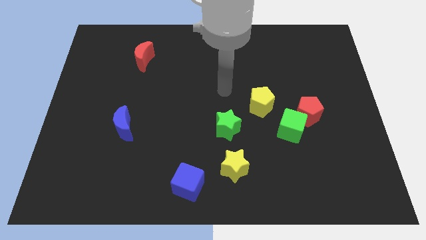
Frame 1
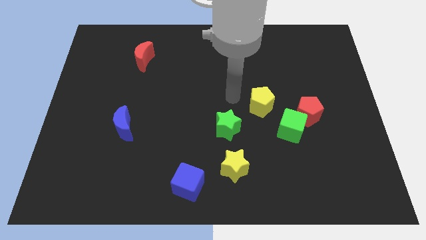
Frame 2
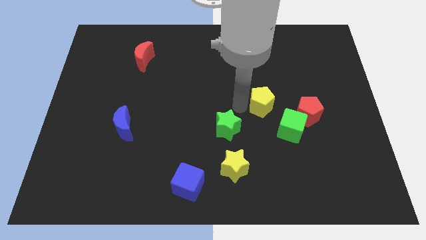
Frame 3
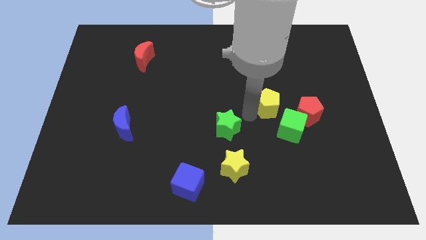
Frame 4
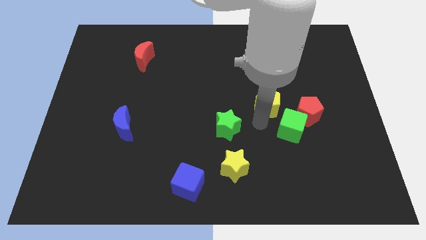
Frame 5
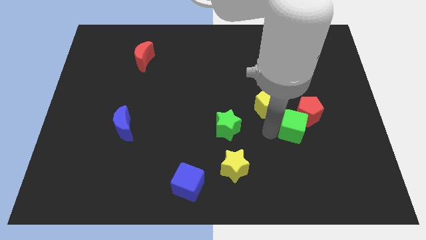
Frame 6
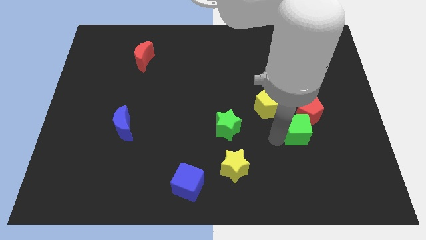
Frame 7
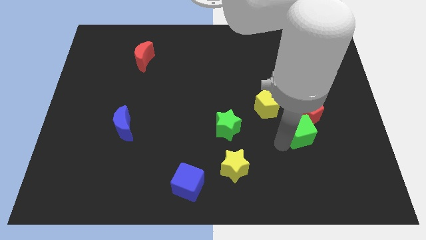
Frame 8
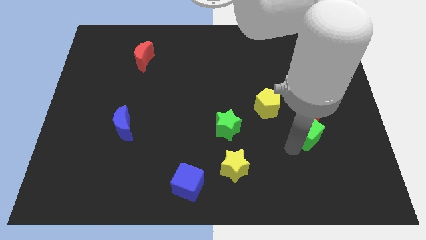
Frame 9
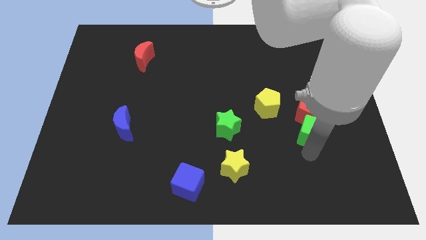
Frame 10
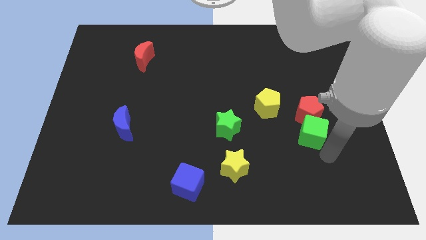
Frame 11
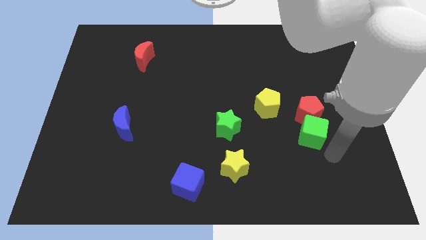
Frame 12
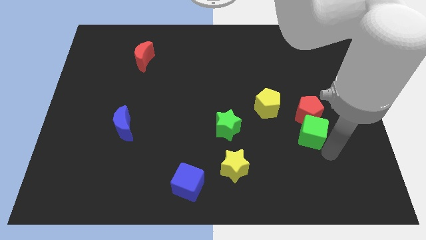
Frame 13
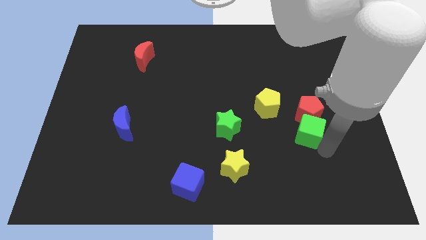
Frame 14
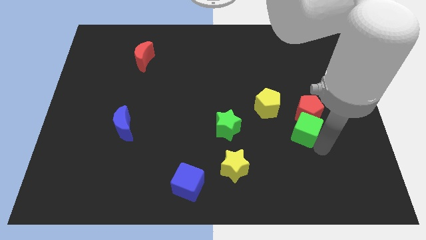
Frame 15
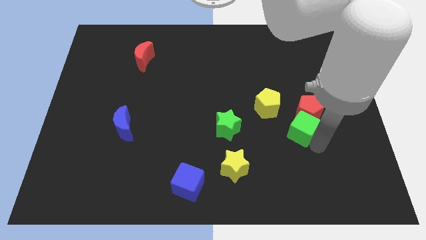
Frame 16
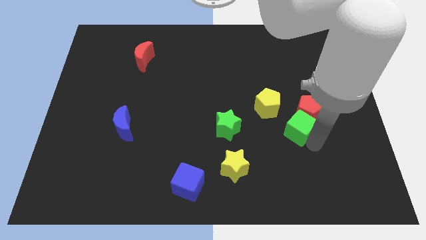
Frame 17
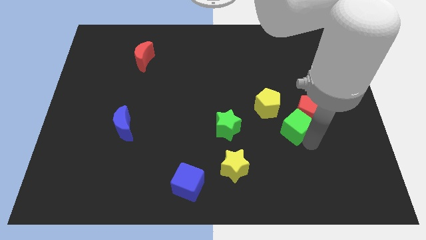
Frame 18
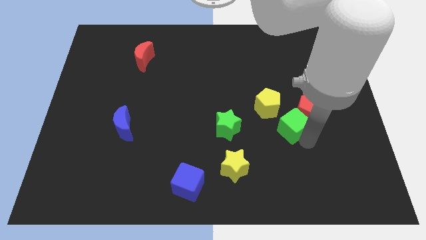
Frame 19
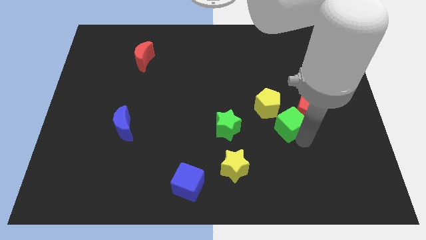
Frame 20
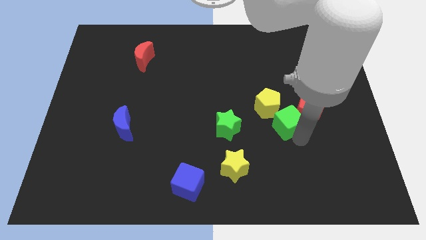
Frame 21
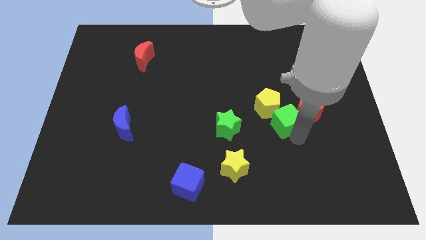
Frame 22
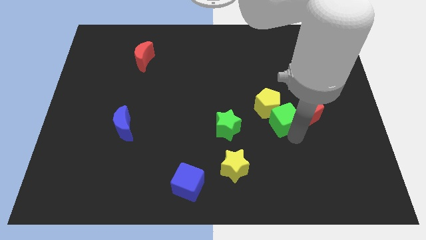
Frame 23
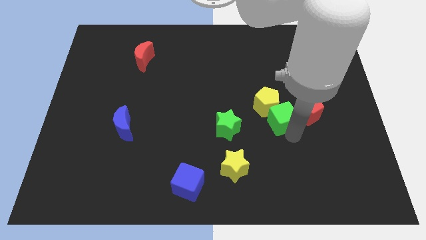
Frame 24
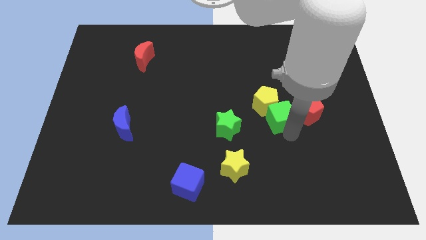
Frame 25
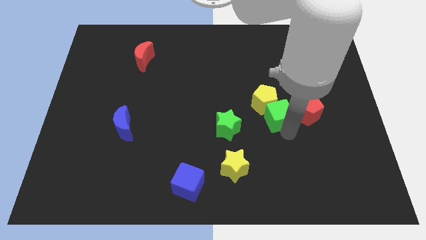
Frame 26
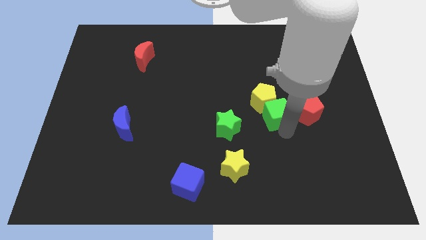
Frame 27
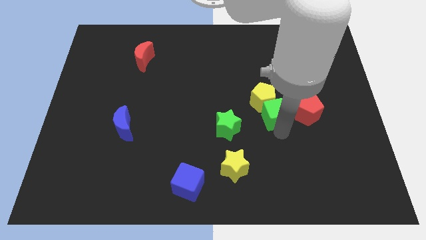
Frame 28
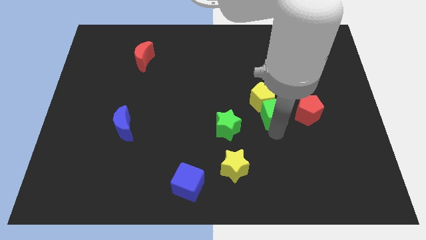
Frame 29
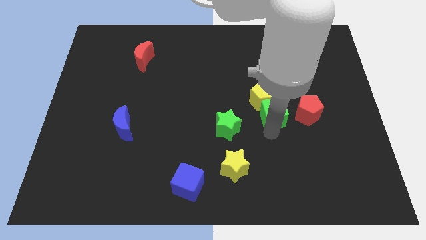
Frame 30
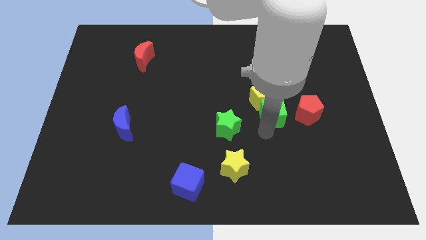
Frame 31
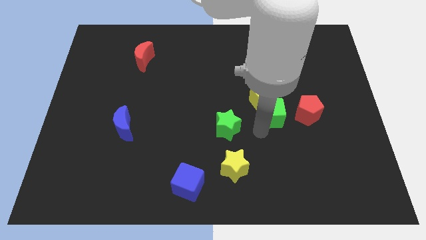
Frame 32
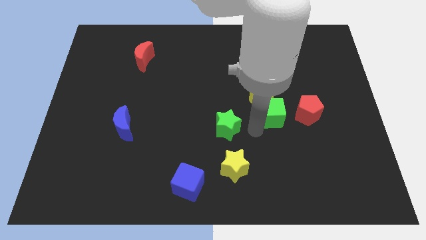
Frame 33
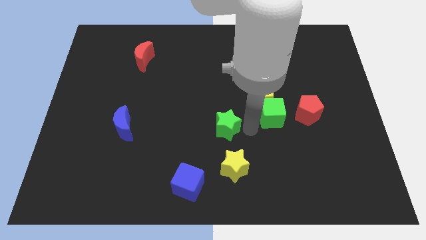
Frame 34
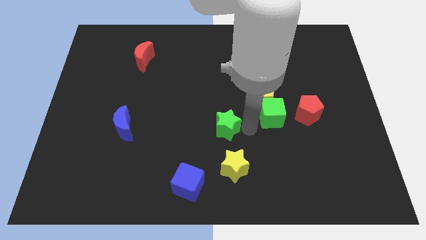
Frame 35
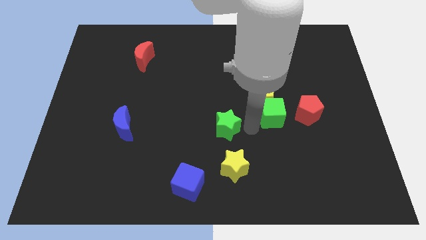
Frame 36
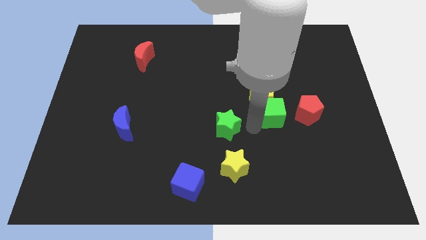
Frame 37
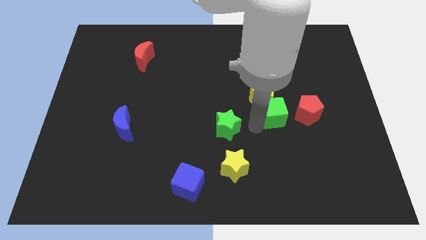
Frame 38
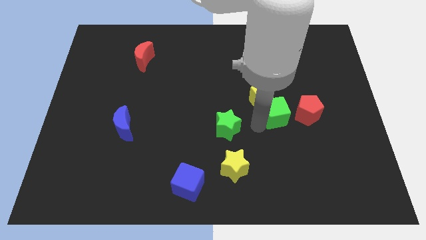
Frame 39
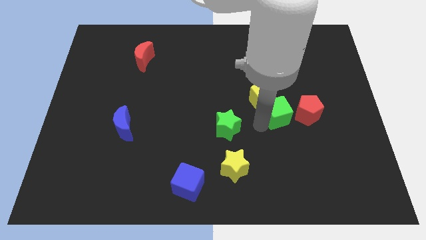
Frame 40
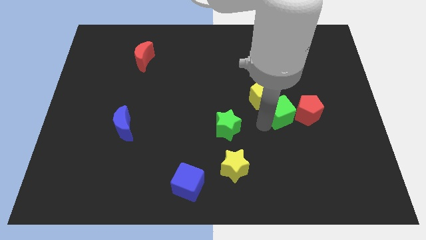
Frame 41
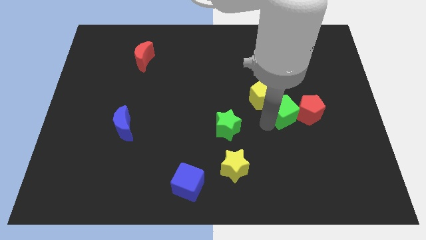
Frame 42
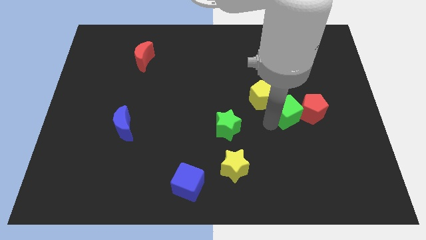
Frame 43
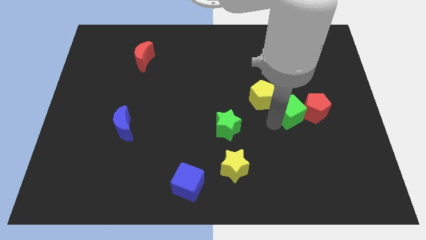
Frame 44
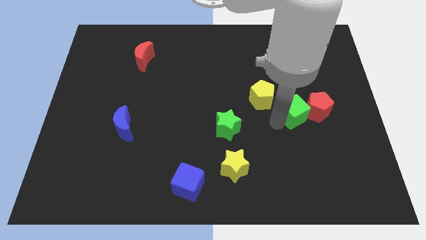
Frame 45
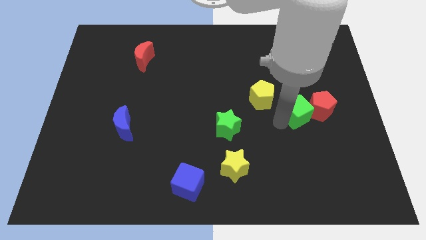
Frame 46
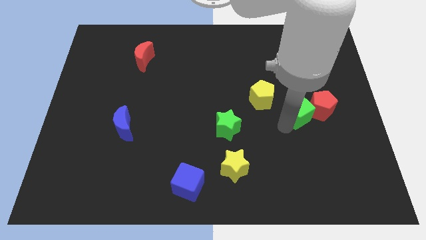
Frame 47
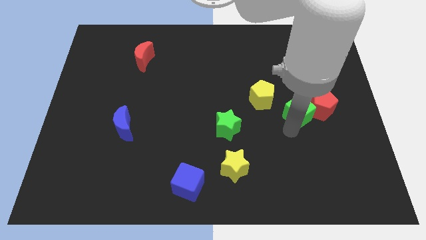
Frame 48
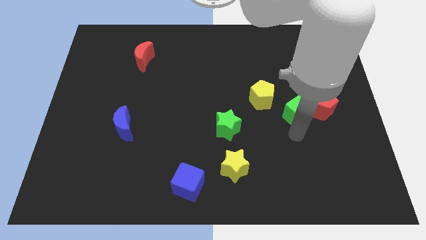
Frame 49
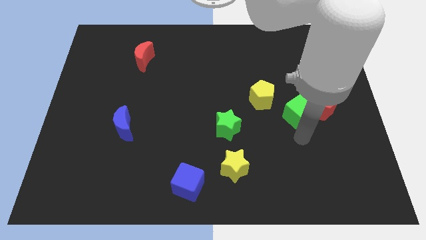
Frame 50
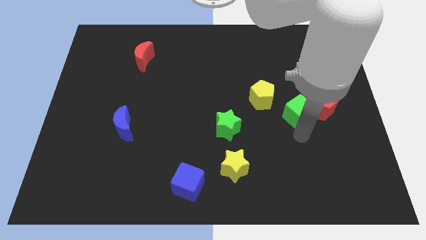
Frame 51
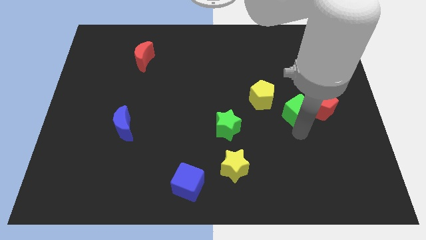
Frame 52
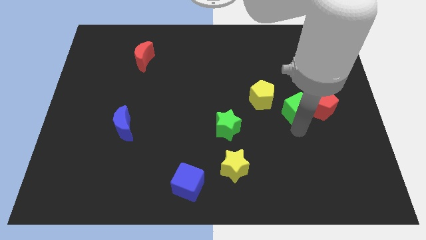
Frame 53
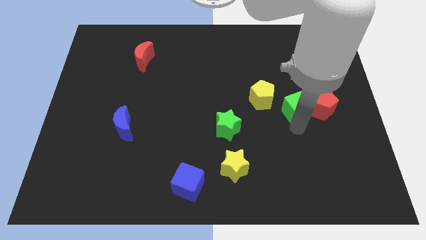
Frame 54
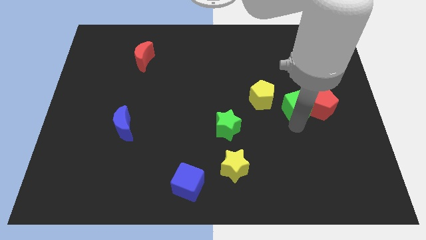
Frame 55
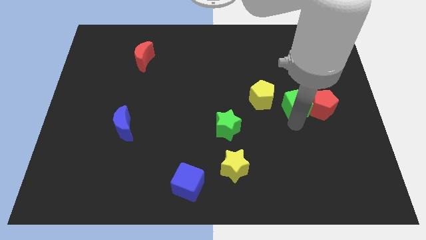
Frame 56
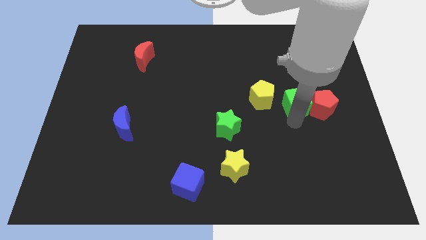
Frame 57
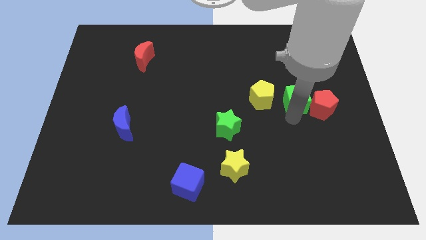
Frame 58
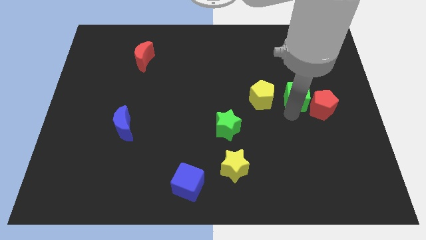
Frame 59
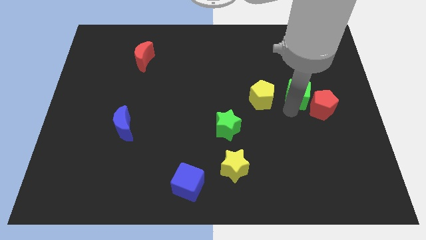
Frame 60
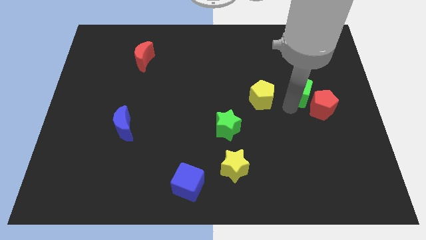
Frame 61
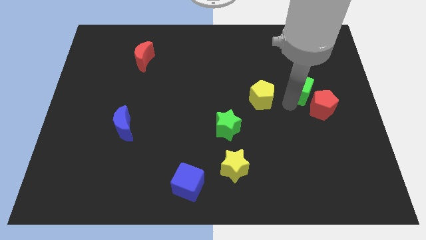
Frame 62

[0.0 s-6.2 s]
push the green cube above the red pentagon

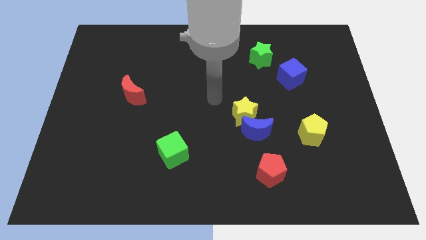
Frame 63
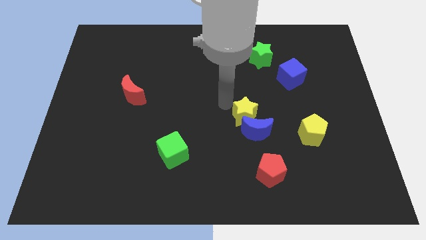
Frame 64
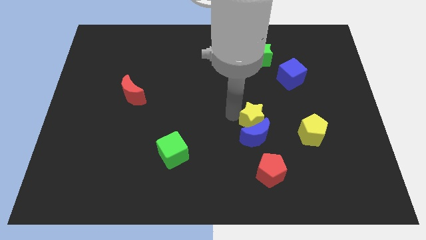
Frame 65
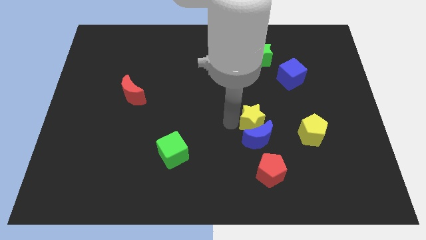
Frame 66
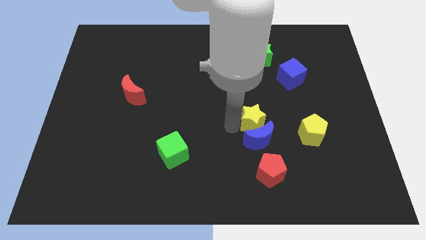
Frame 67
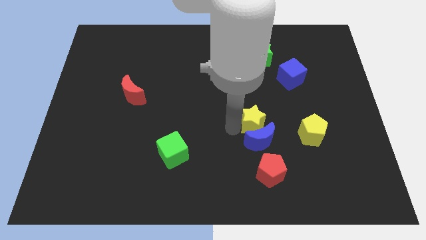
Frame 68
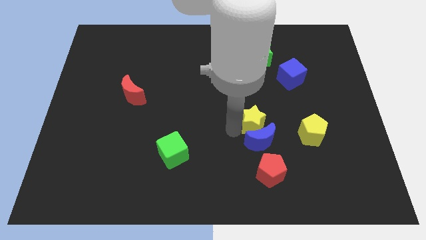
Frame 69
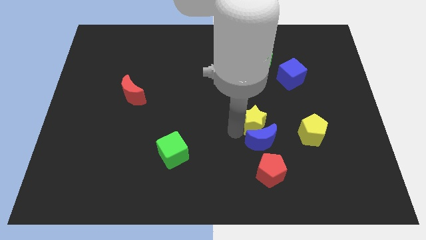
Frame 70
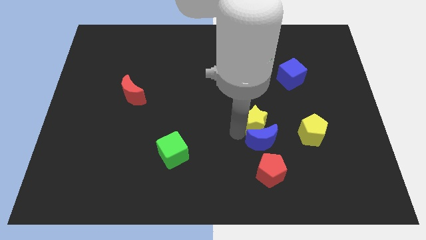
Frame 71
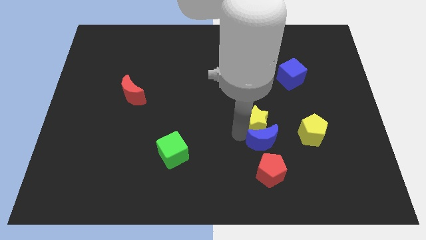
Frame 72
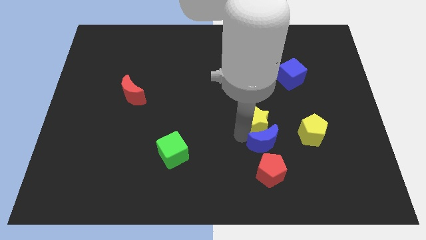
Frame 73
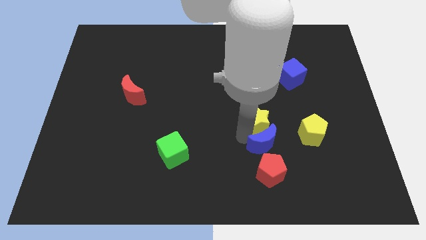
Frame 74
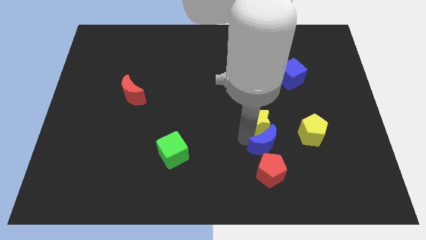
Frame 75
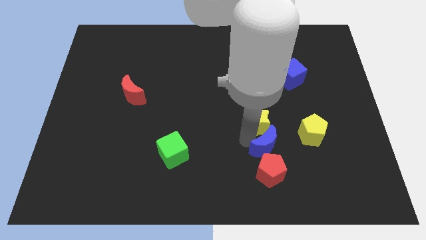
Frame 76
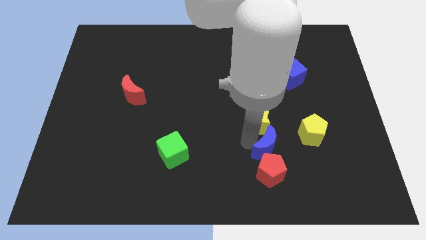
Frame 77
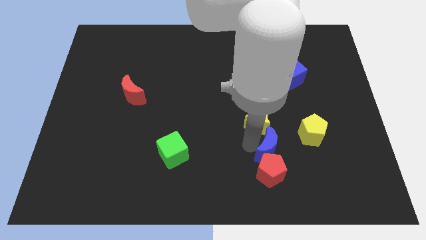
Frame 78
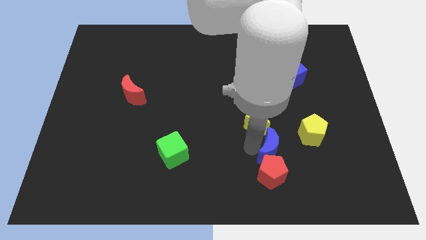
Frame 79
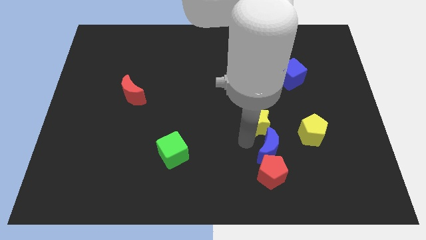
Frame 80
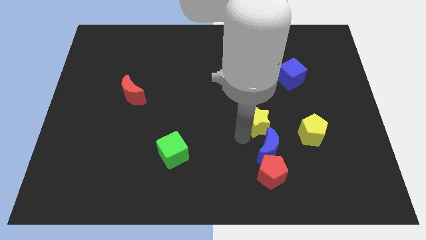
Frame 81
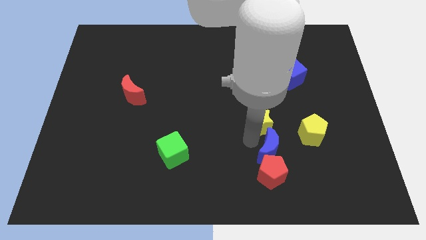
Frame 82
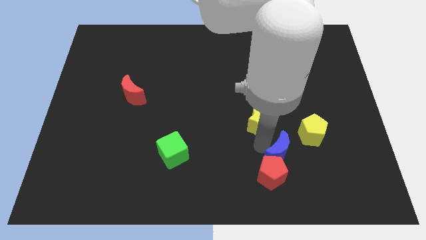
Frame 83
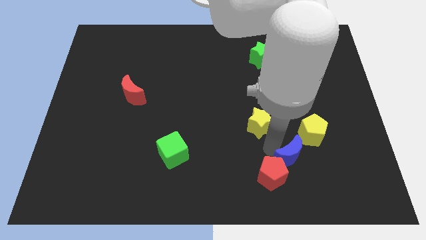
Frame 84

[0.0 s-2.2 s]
push the blue moon to the right of the red pentagon
